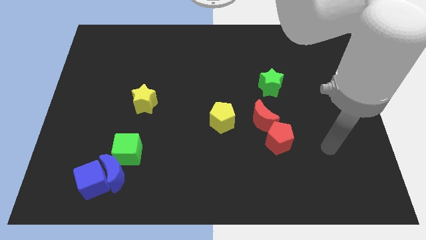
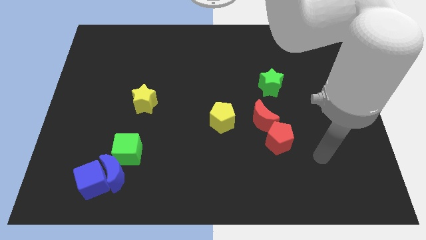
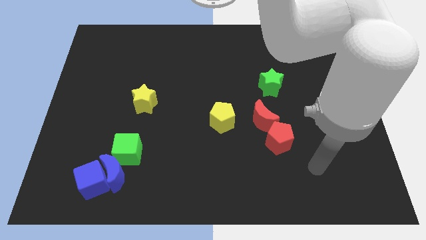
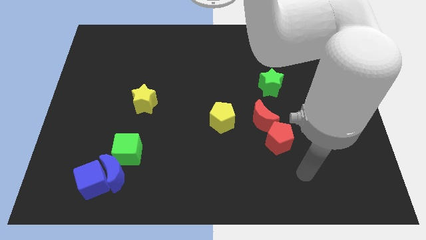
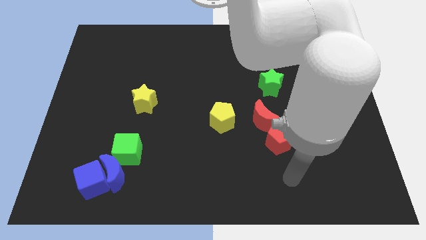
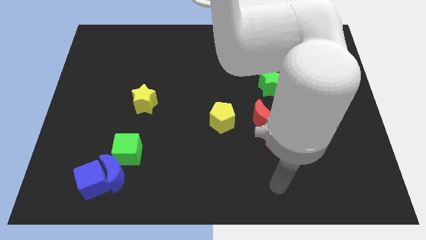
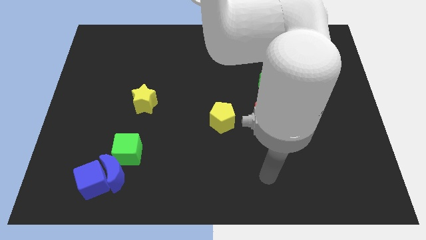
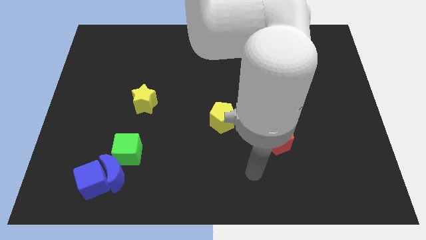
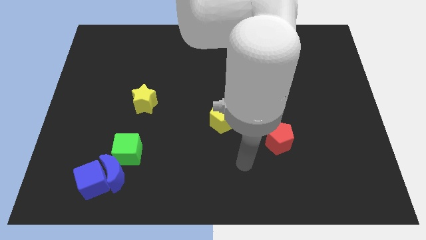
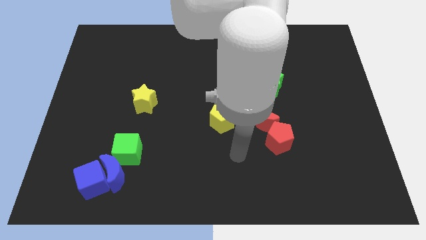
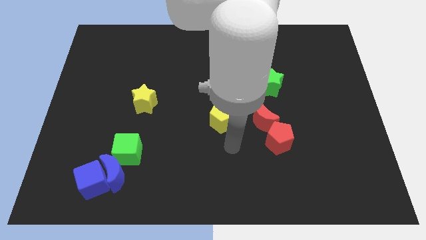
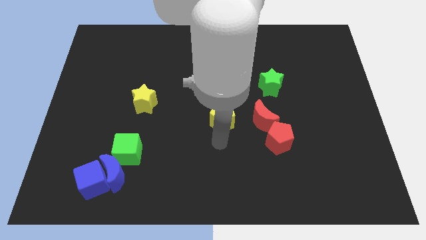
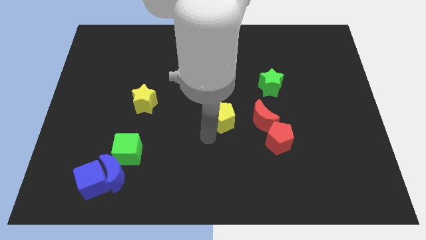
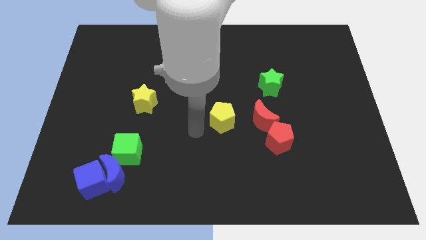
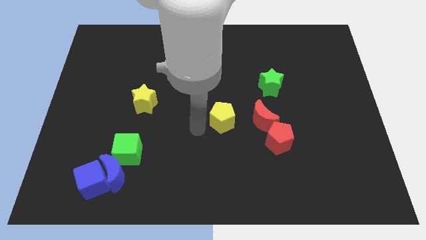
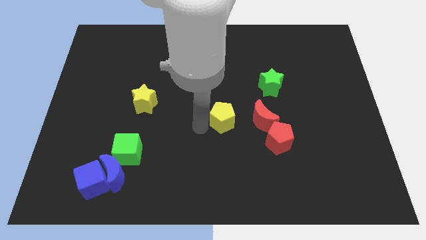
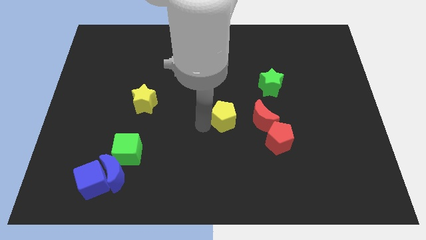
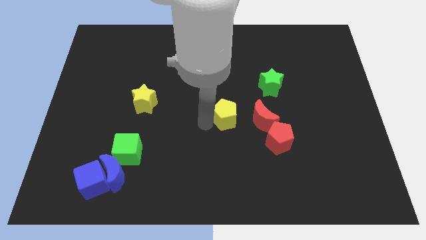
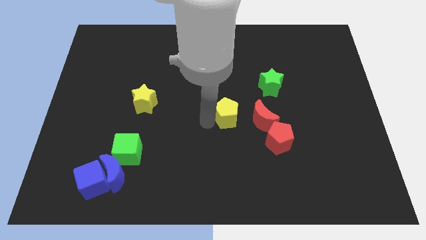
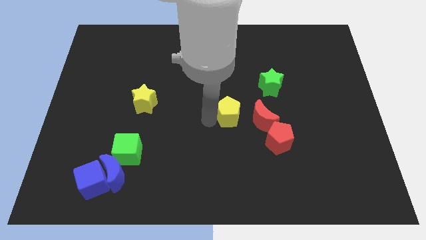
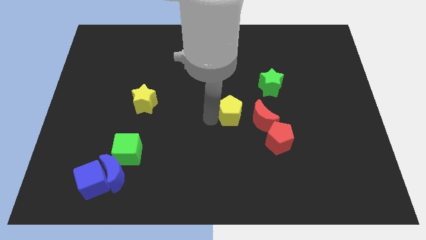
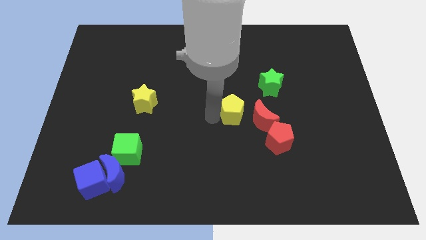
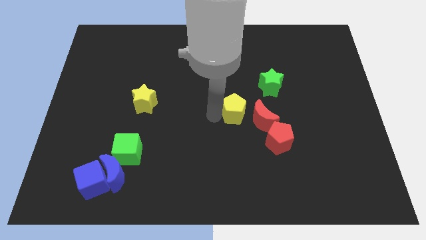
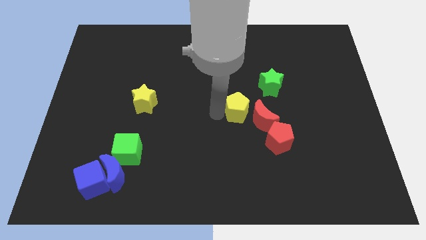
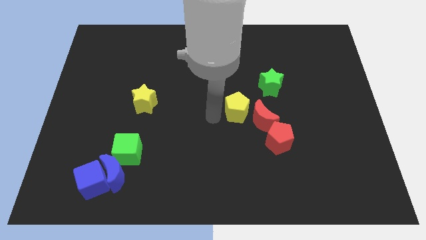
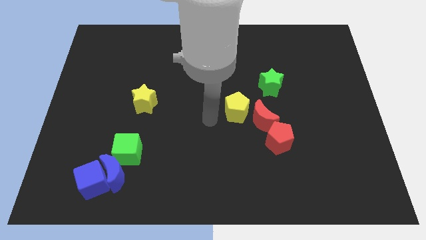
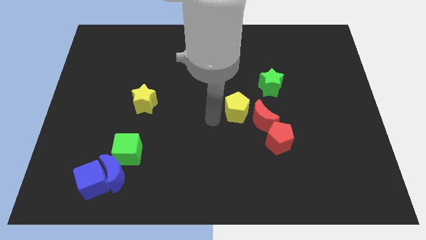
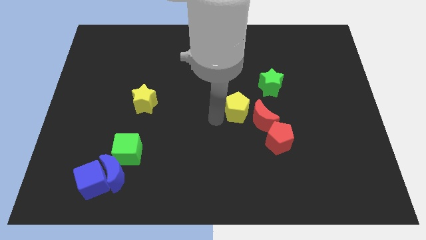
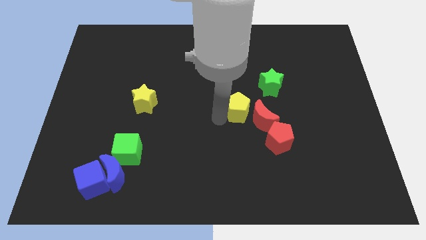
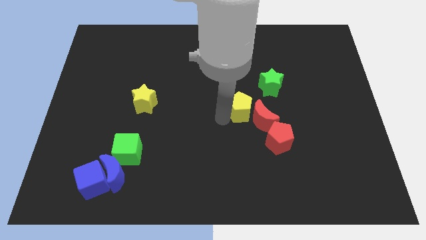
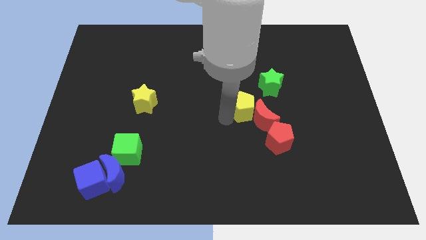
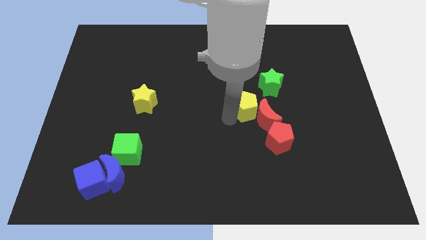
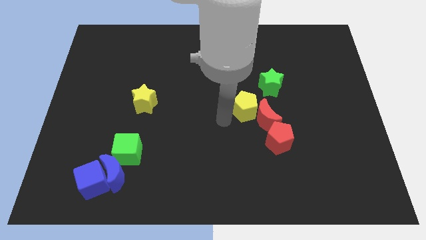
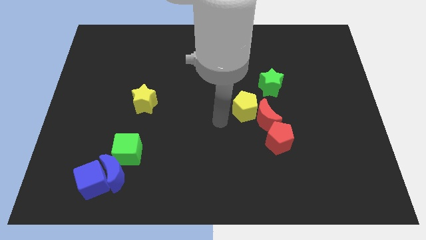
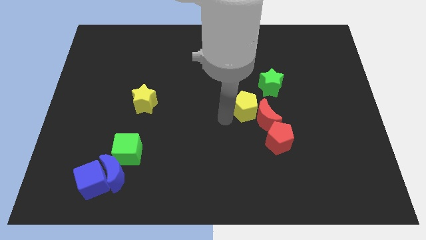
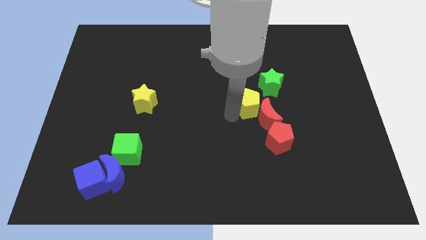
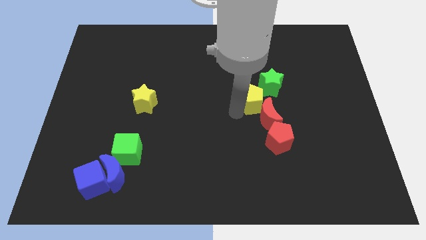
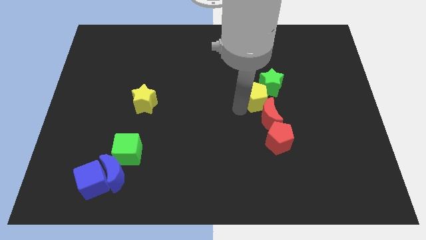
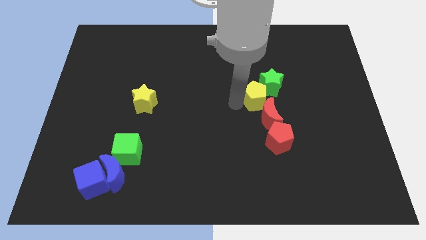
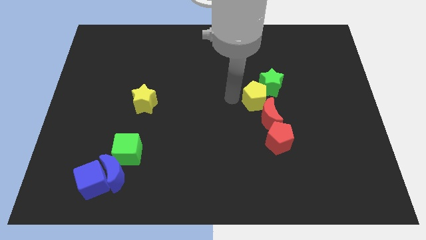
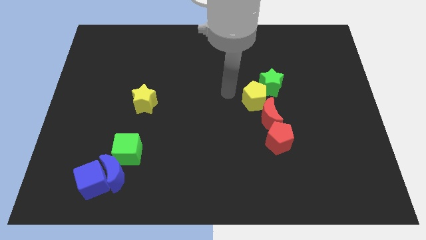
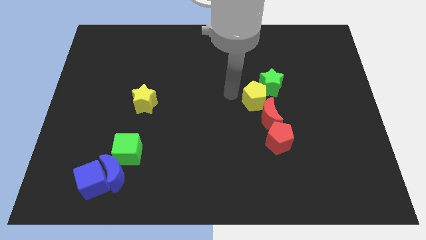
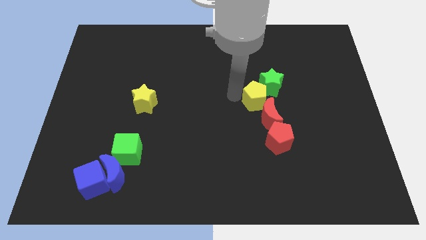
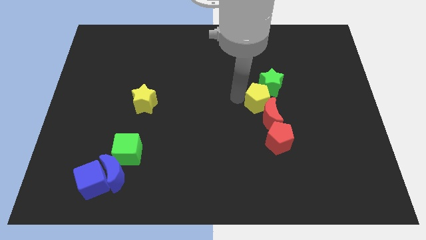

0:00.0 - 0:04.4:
slide the yellow pentagon right a little bit

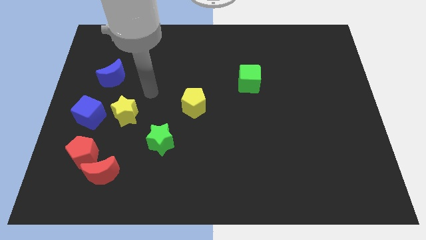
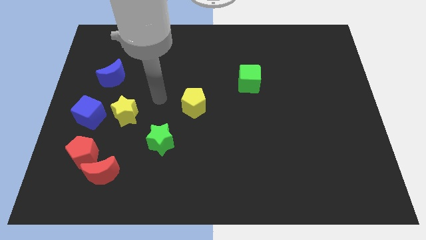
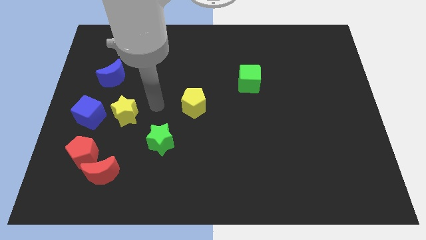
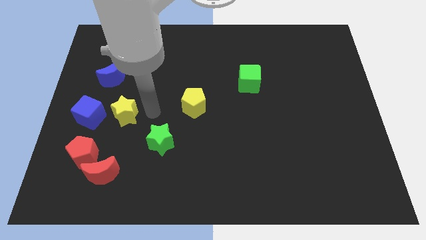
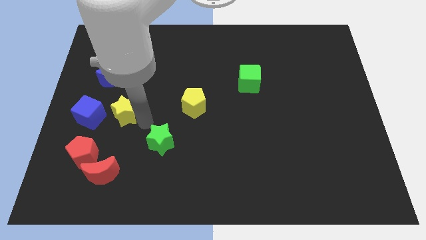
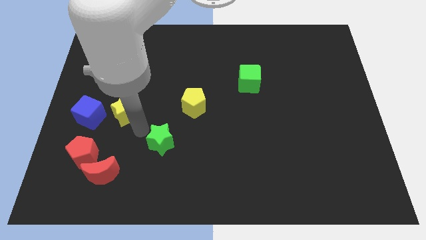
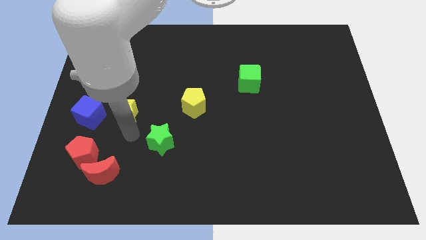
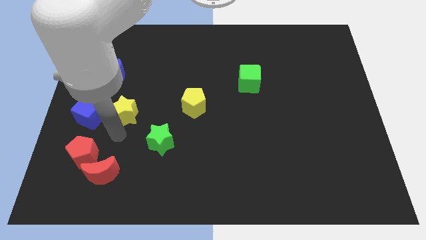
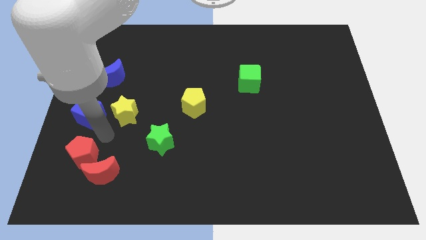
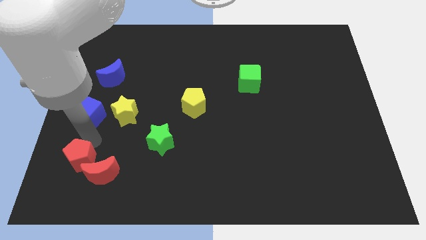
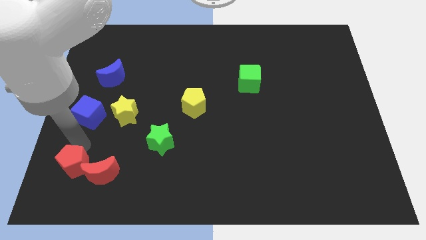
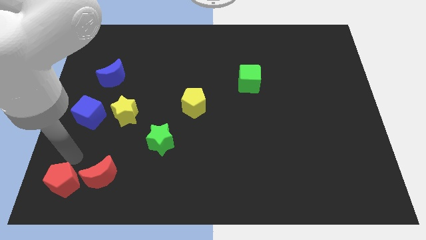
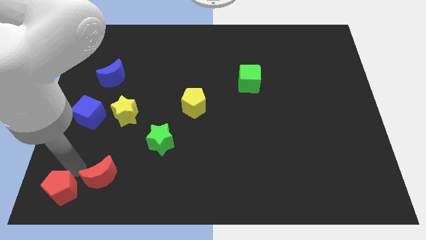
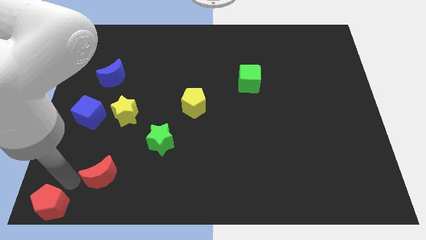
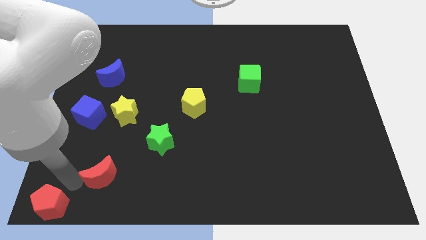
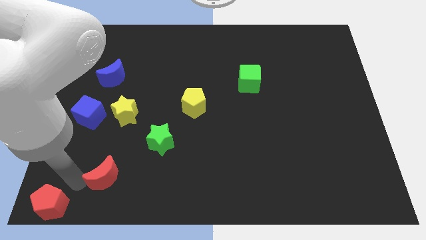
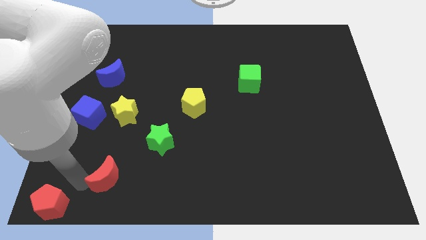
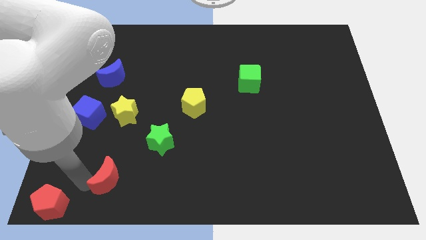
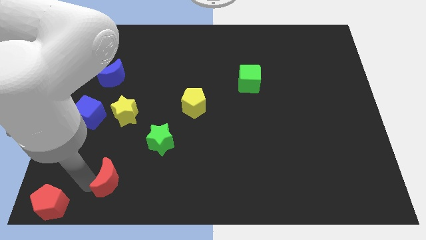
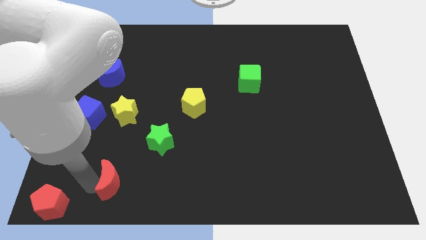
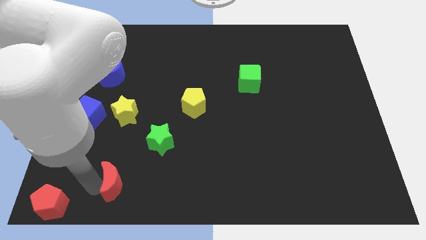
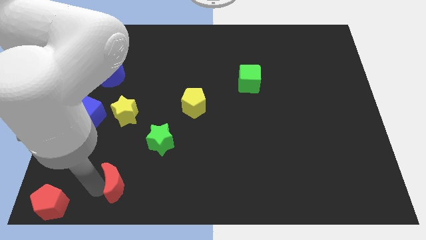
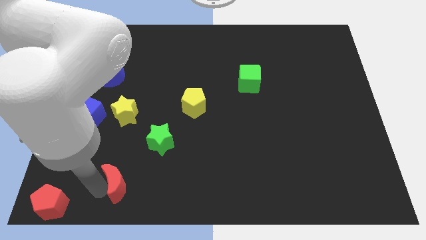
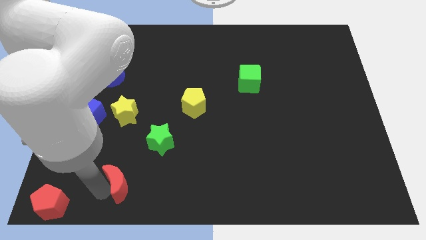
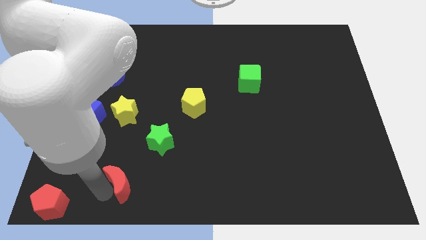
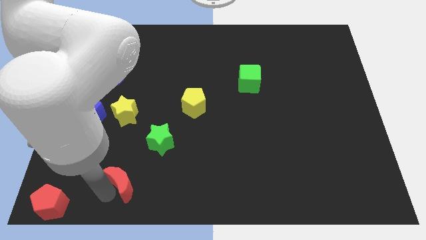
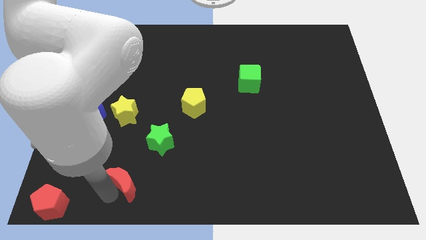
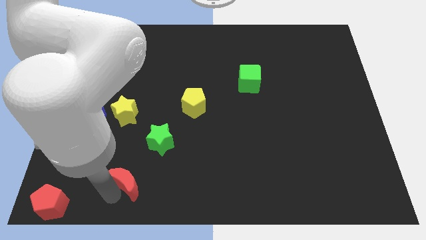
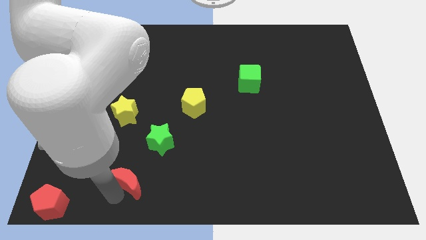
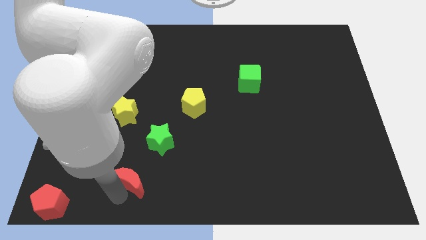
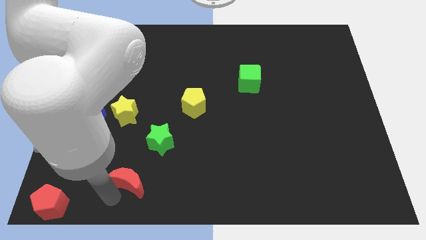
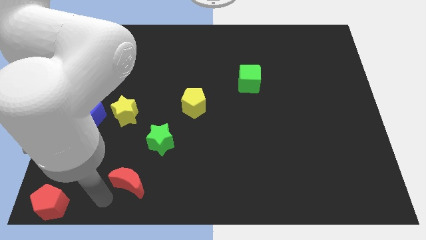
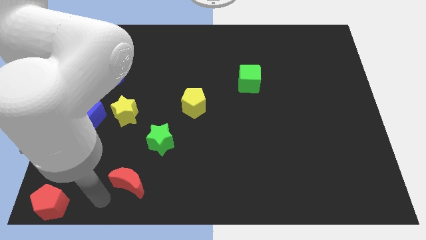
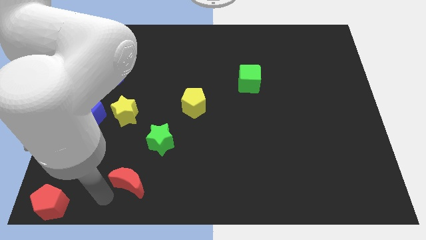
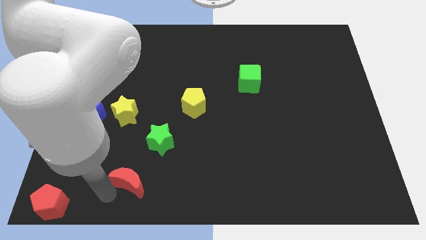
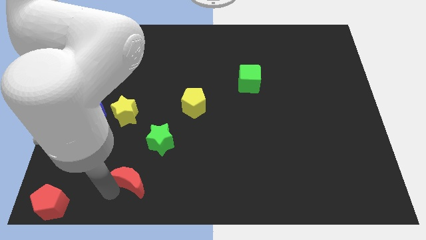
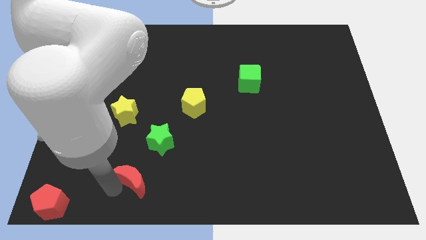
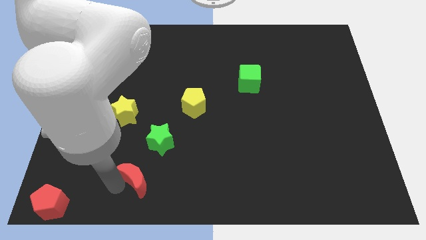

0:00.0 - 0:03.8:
move the red moon a little bit right

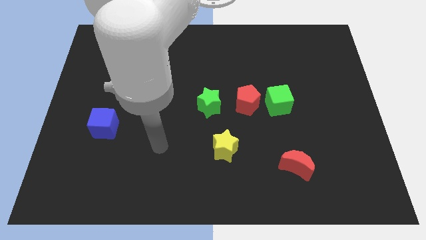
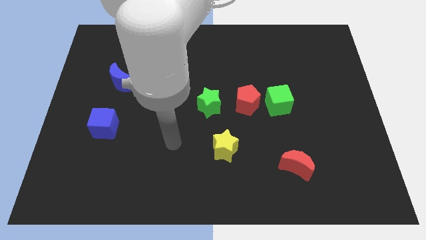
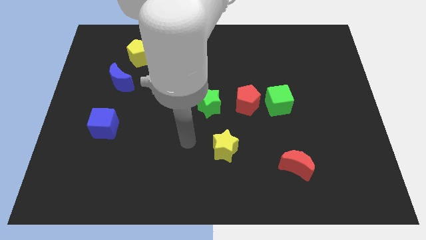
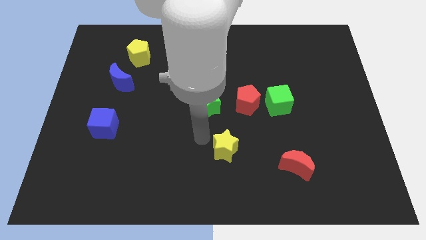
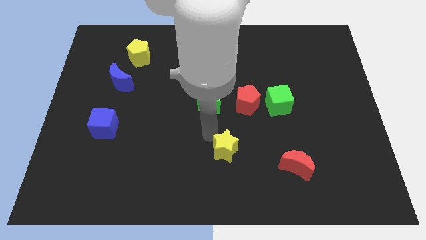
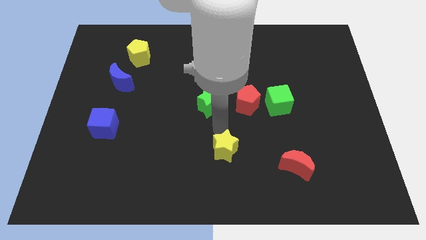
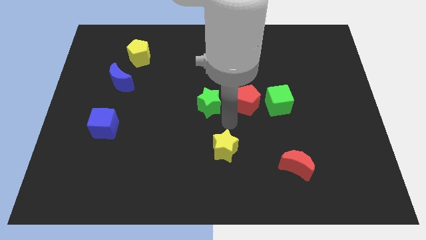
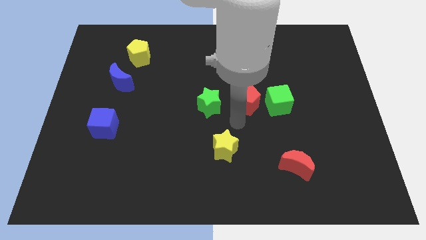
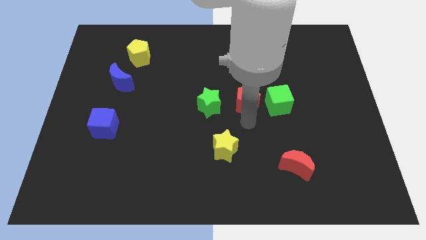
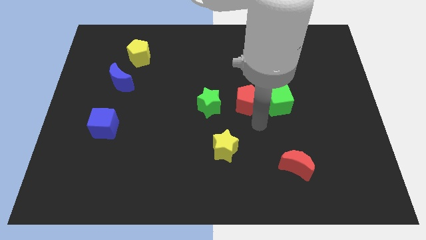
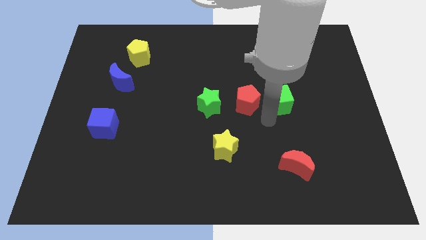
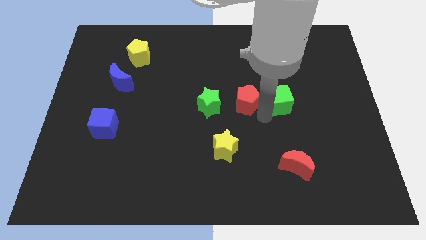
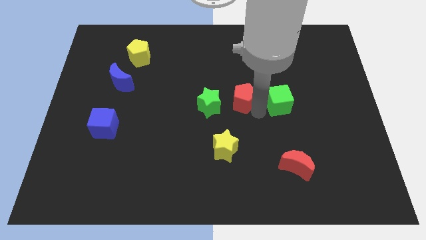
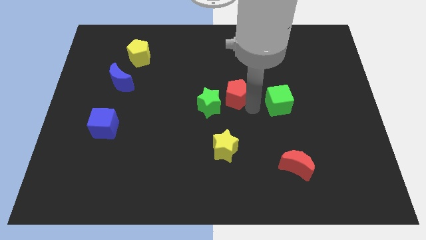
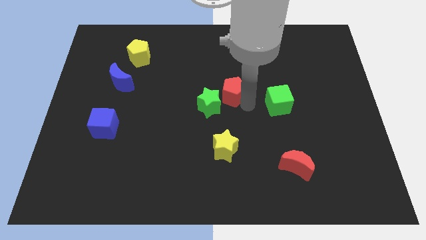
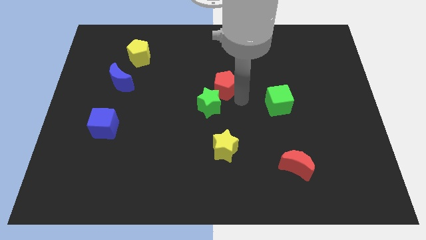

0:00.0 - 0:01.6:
push the red pentagon slightly diagonally upwards and left
